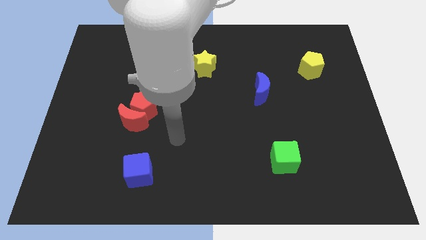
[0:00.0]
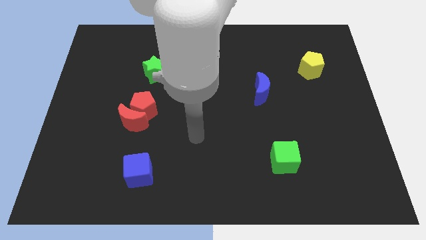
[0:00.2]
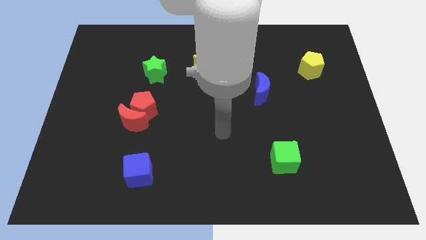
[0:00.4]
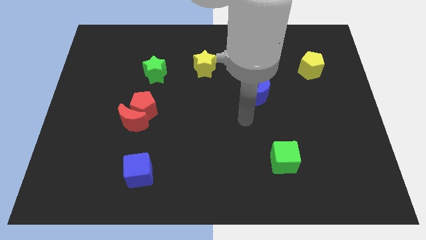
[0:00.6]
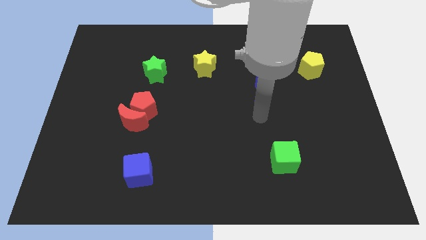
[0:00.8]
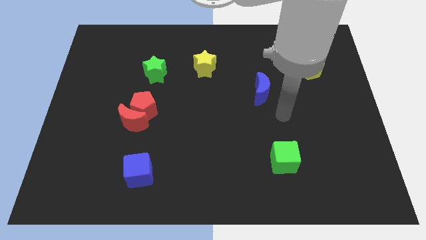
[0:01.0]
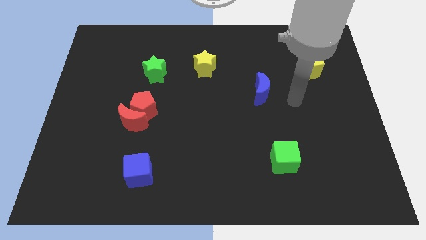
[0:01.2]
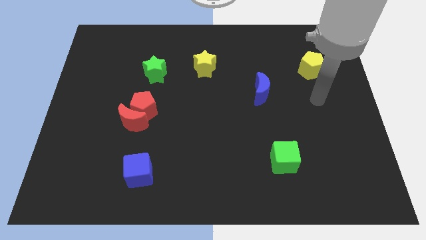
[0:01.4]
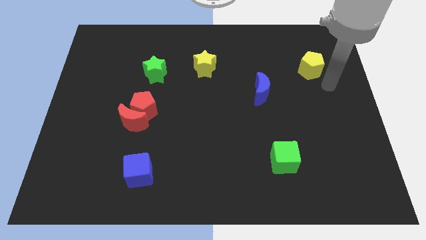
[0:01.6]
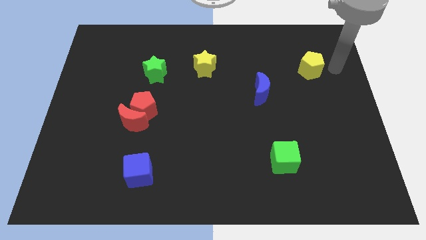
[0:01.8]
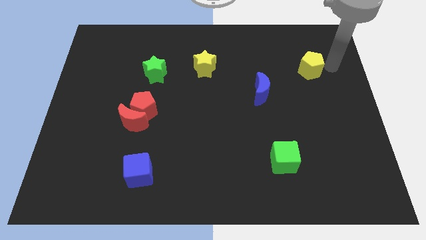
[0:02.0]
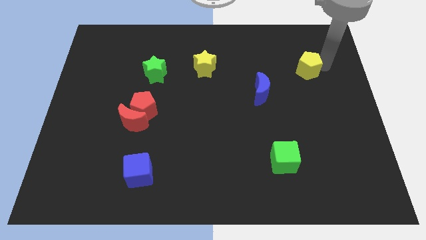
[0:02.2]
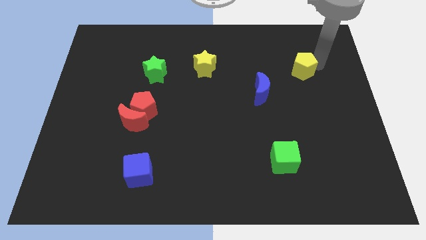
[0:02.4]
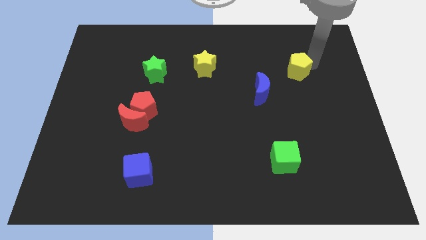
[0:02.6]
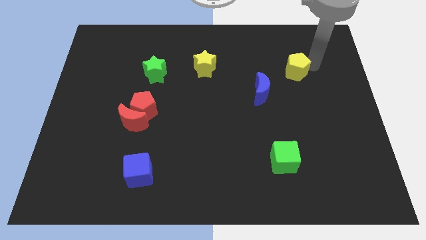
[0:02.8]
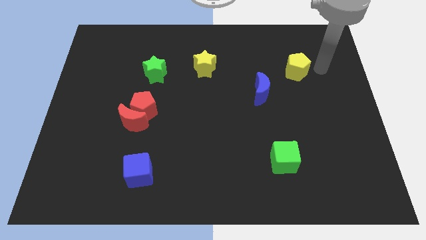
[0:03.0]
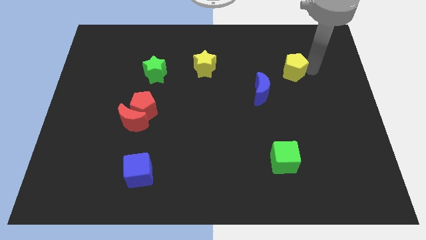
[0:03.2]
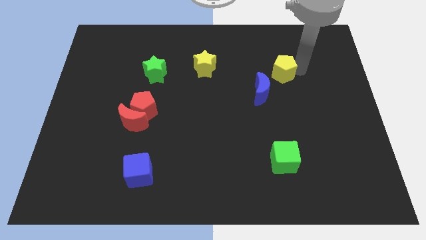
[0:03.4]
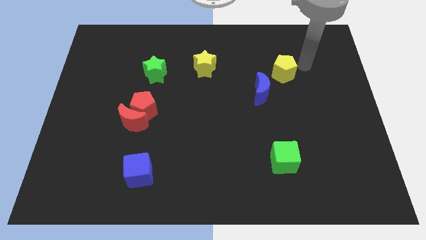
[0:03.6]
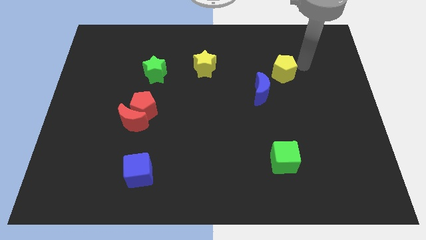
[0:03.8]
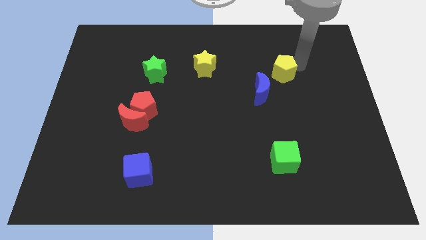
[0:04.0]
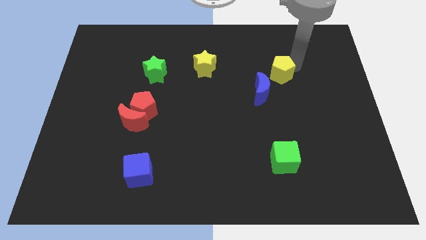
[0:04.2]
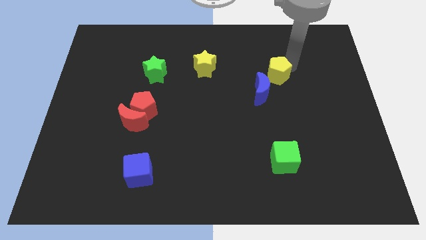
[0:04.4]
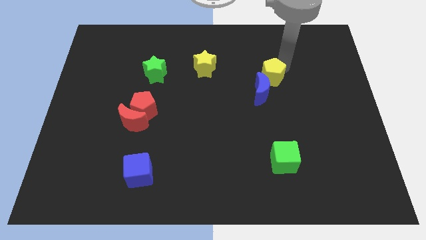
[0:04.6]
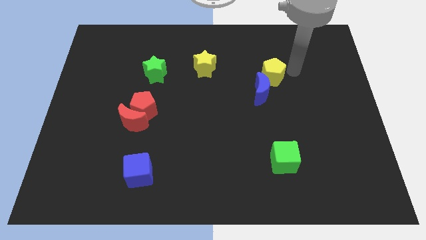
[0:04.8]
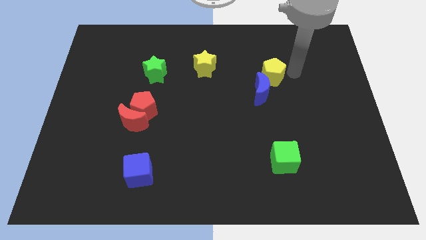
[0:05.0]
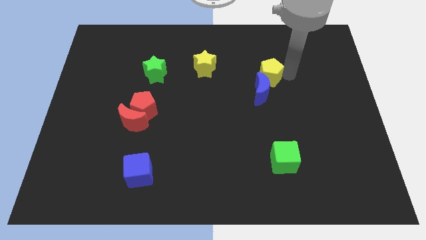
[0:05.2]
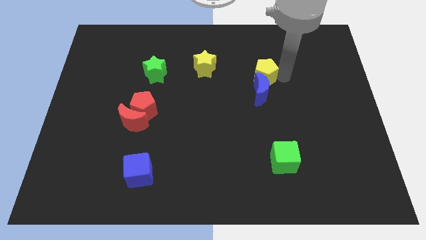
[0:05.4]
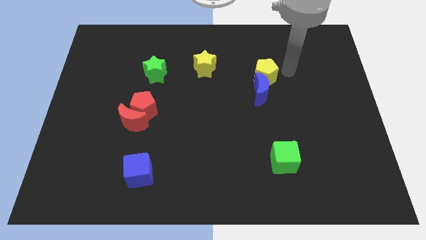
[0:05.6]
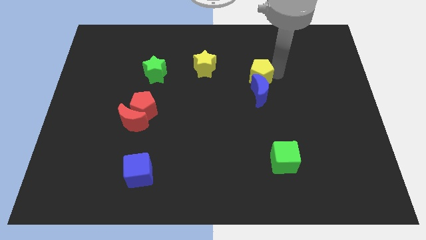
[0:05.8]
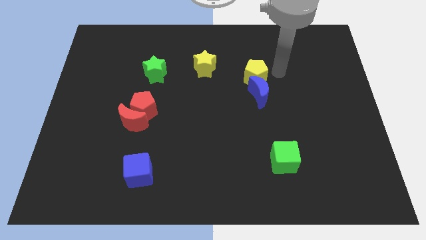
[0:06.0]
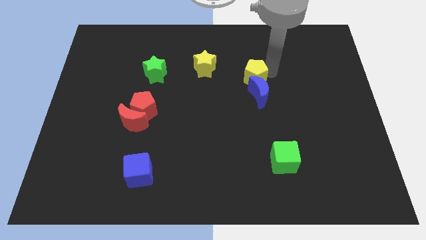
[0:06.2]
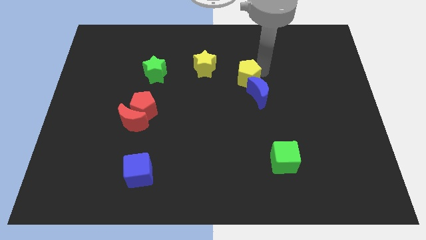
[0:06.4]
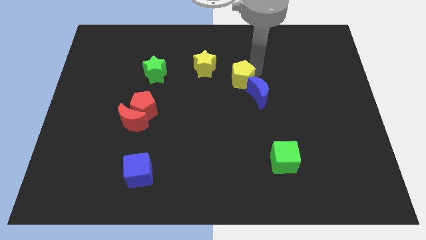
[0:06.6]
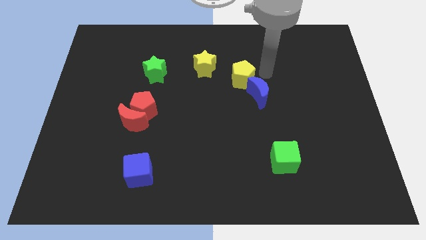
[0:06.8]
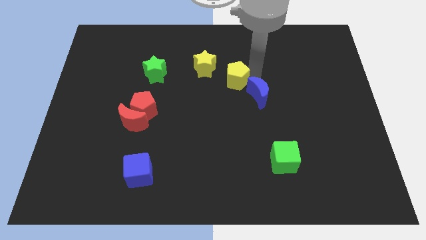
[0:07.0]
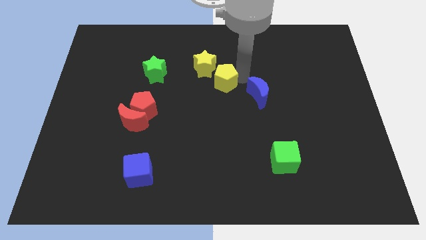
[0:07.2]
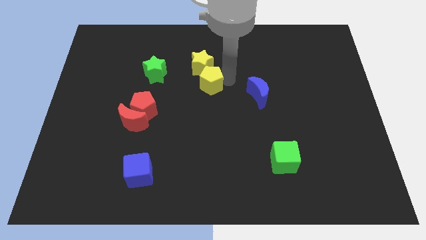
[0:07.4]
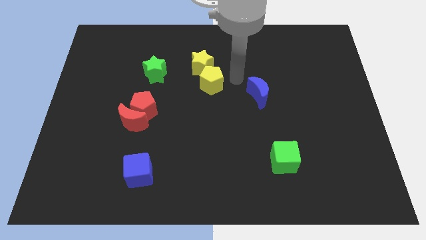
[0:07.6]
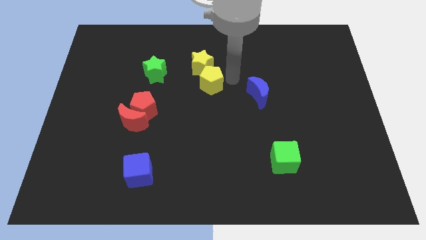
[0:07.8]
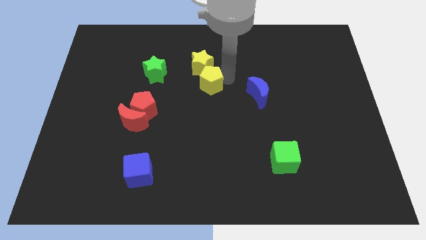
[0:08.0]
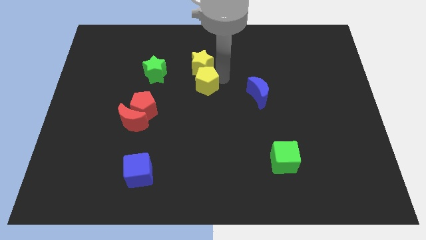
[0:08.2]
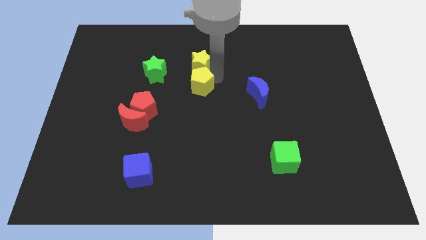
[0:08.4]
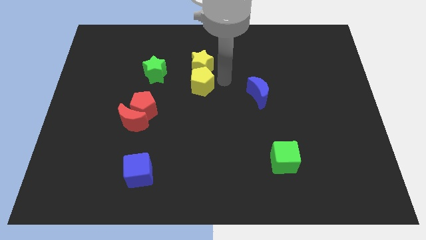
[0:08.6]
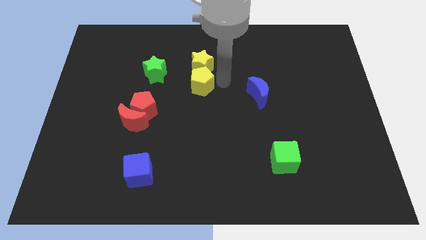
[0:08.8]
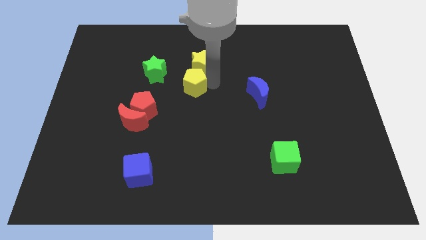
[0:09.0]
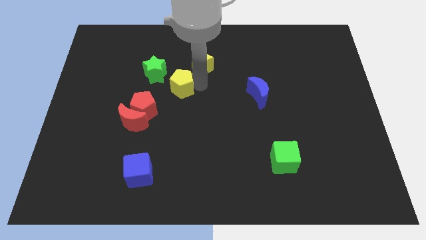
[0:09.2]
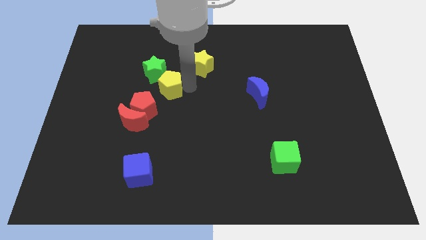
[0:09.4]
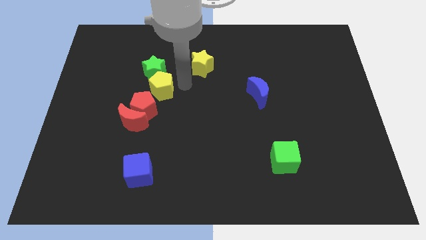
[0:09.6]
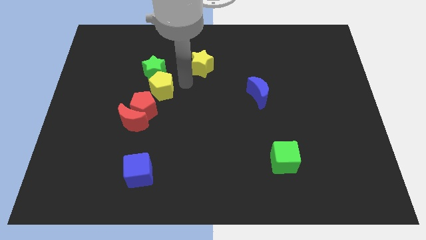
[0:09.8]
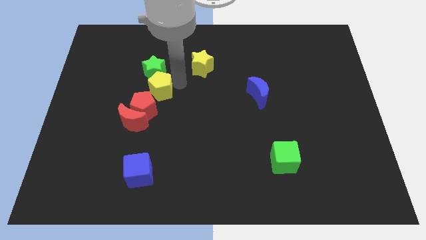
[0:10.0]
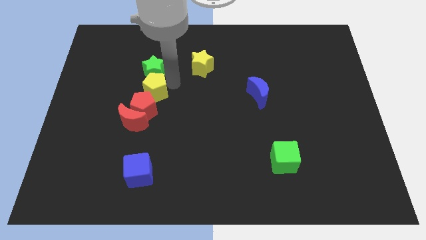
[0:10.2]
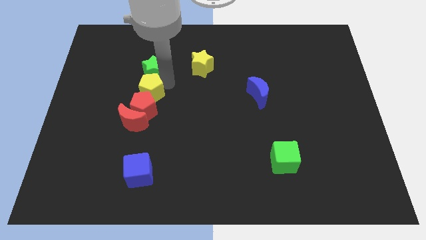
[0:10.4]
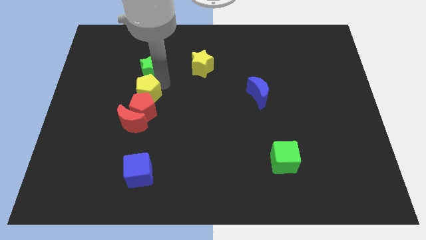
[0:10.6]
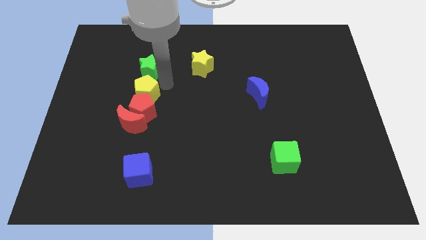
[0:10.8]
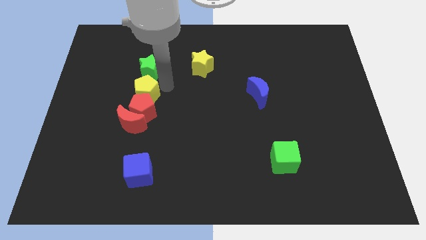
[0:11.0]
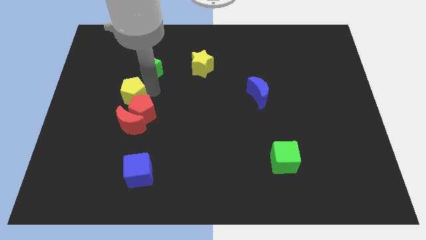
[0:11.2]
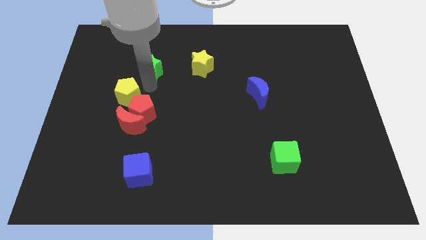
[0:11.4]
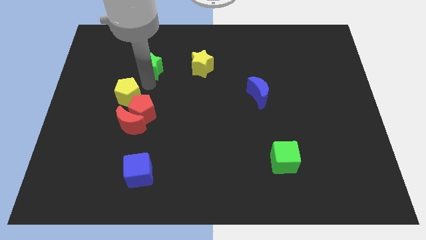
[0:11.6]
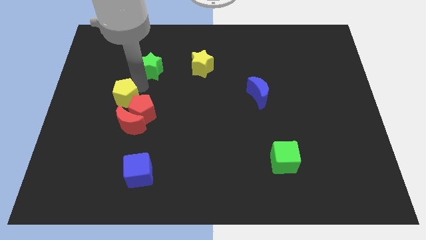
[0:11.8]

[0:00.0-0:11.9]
push the yellow pentagon to the left of the red pentagon

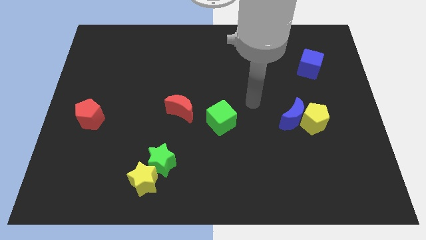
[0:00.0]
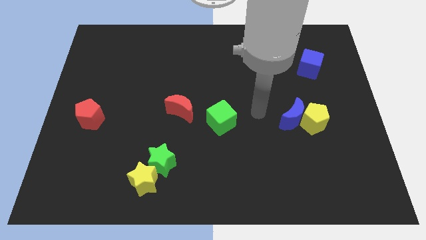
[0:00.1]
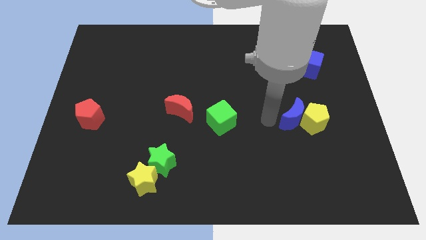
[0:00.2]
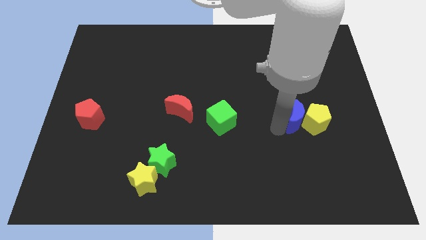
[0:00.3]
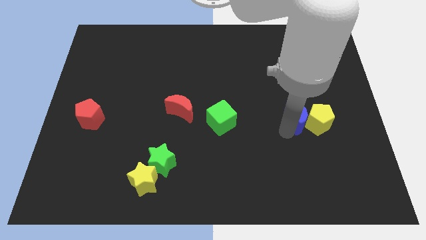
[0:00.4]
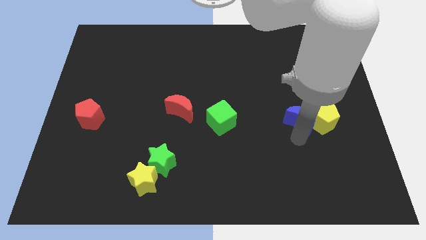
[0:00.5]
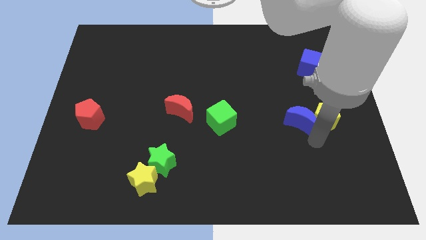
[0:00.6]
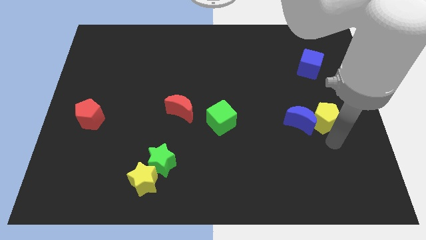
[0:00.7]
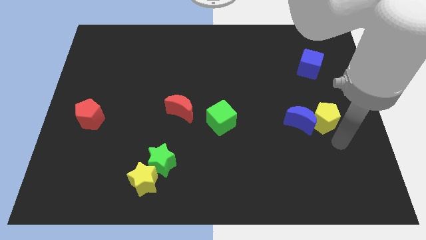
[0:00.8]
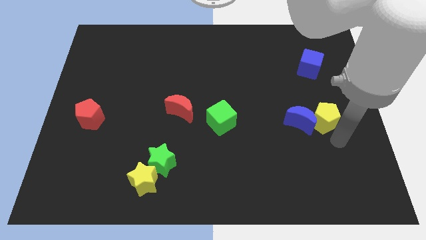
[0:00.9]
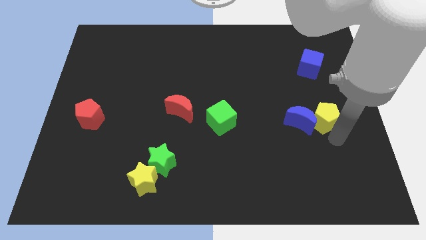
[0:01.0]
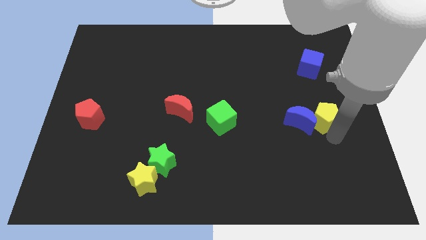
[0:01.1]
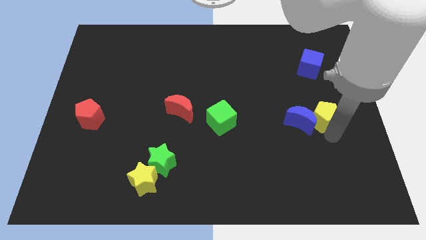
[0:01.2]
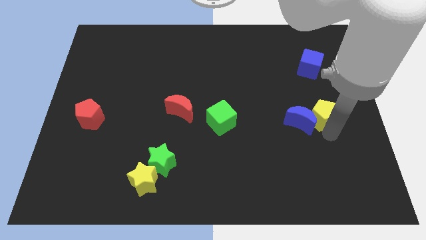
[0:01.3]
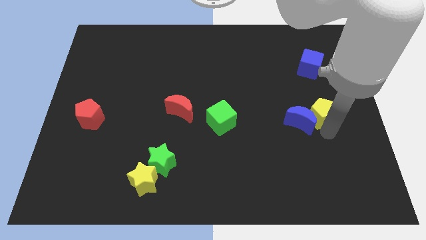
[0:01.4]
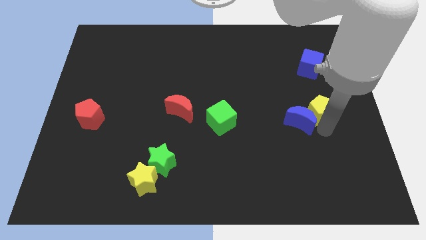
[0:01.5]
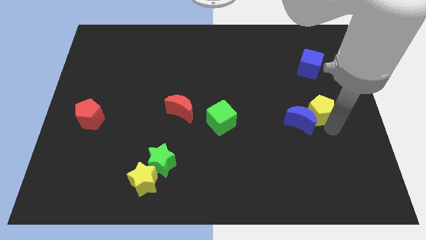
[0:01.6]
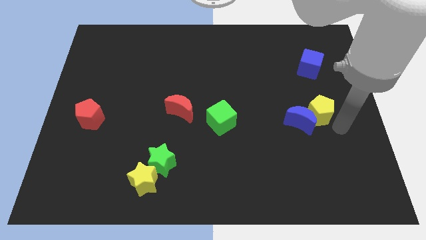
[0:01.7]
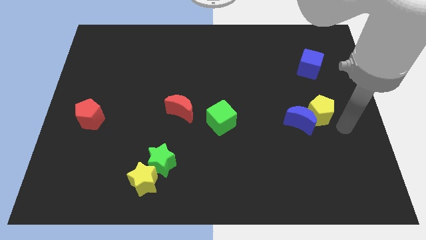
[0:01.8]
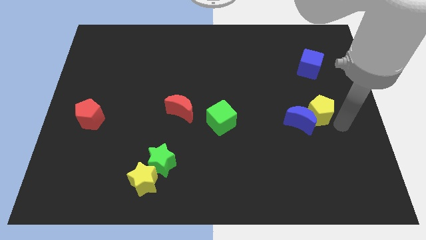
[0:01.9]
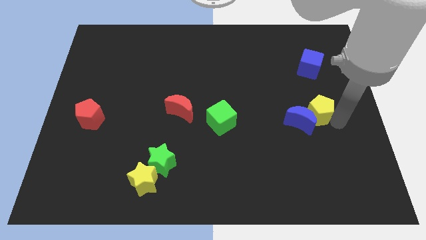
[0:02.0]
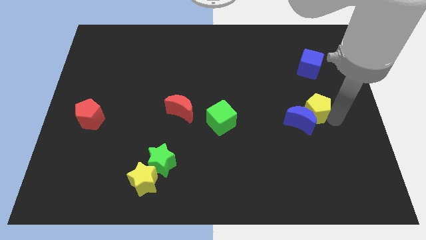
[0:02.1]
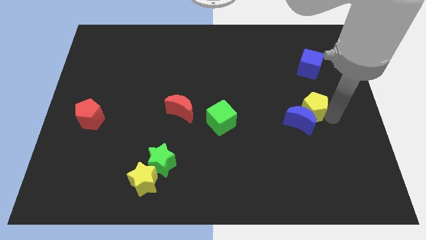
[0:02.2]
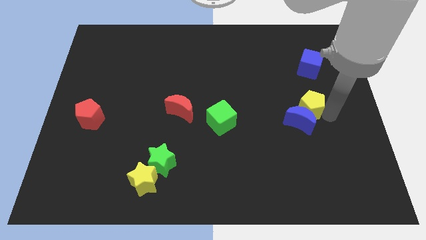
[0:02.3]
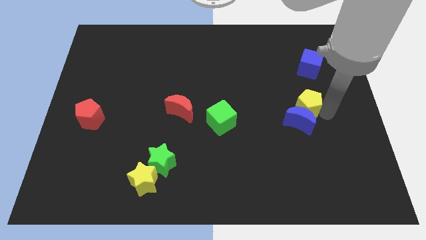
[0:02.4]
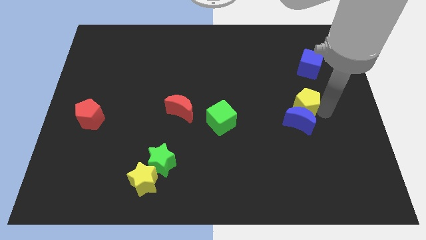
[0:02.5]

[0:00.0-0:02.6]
move the yellow pentagon to the top left of the blue moon
